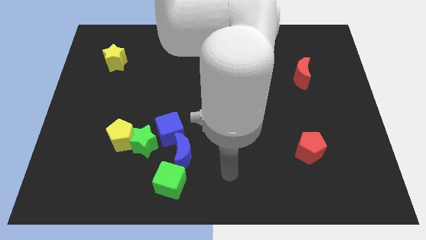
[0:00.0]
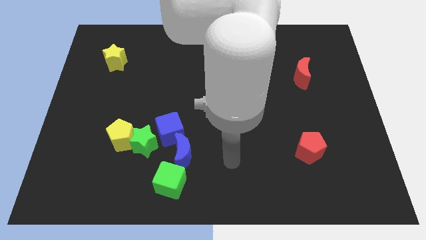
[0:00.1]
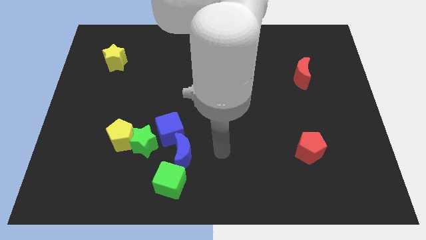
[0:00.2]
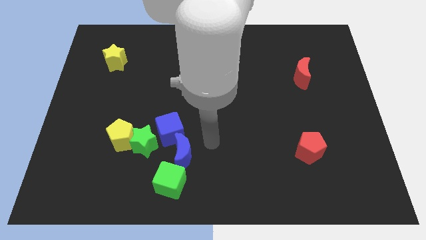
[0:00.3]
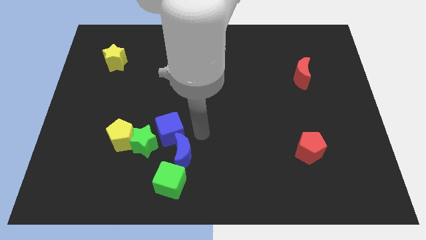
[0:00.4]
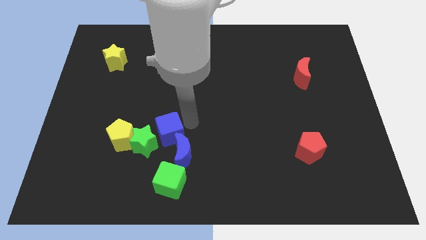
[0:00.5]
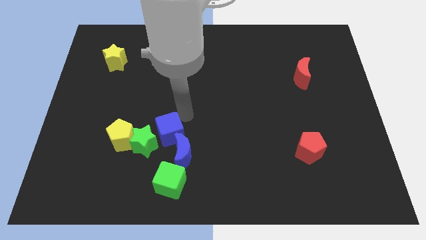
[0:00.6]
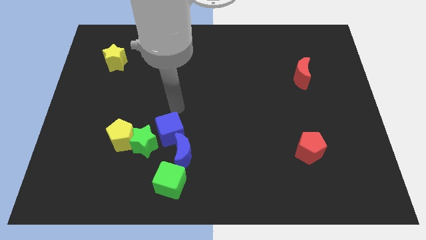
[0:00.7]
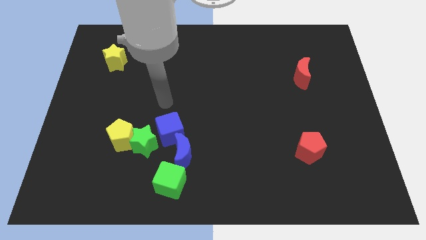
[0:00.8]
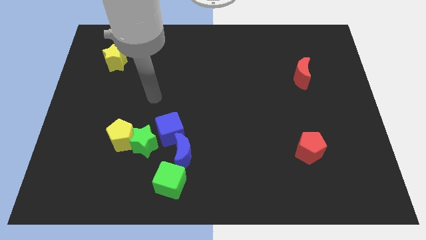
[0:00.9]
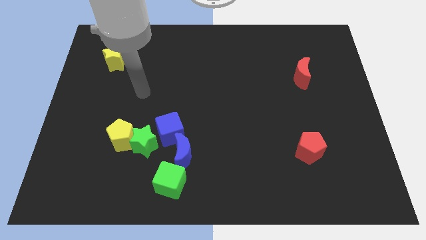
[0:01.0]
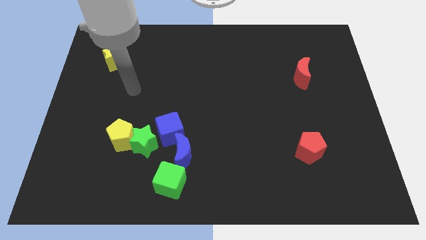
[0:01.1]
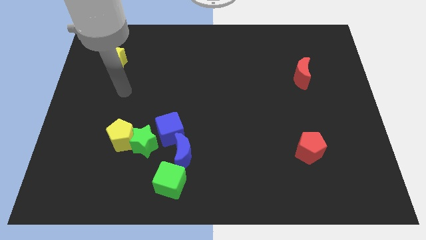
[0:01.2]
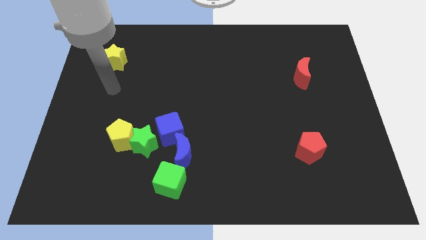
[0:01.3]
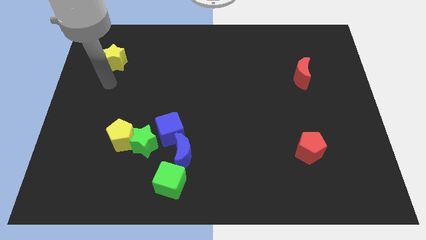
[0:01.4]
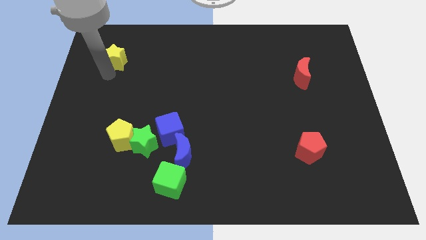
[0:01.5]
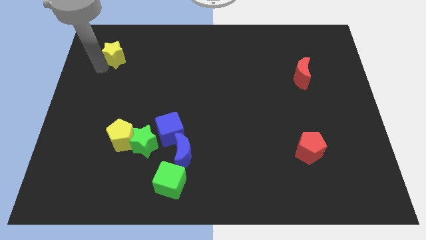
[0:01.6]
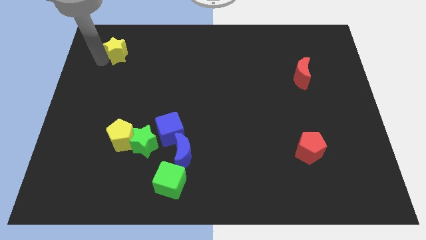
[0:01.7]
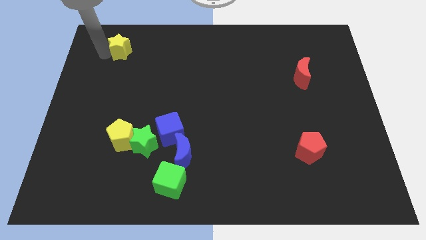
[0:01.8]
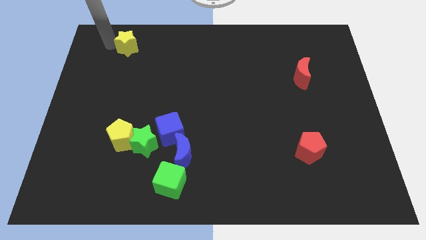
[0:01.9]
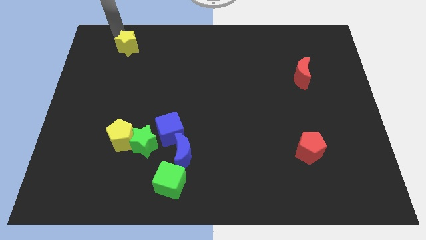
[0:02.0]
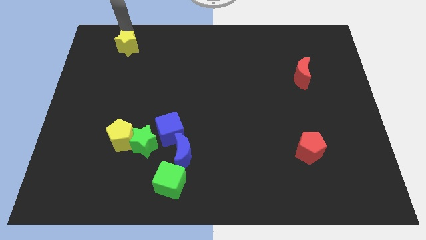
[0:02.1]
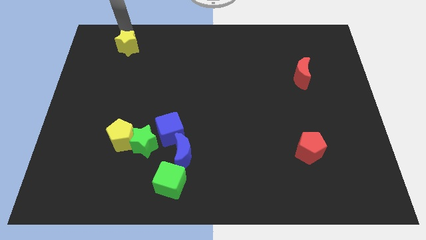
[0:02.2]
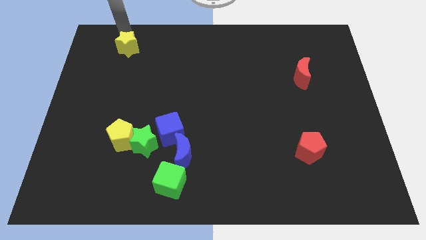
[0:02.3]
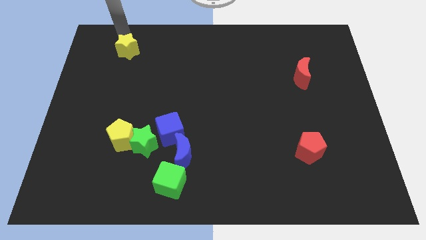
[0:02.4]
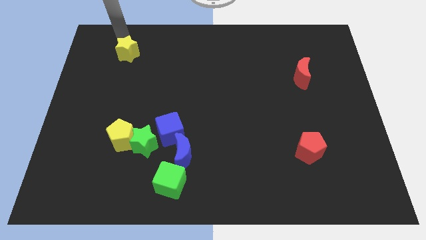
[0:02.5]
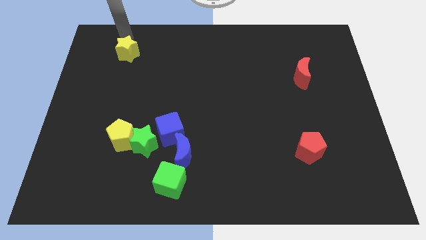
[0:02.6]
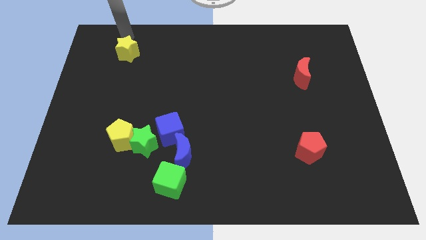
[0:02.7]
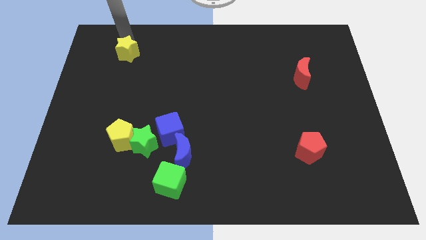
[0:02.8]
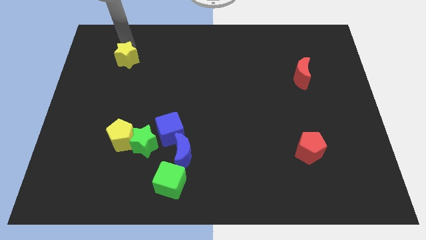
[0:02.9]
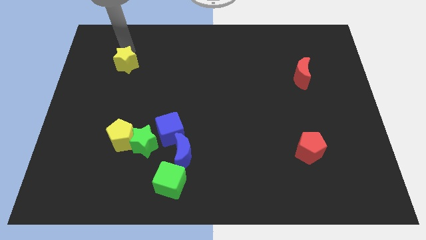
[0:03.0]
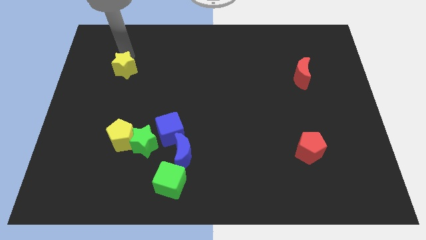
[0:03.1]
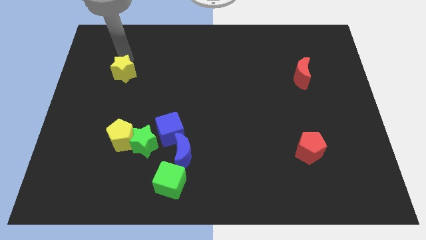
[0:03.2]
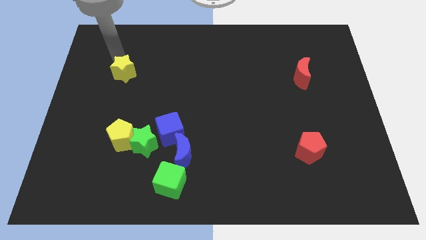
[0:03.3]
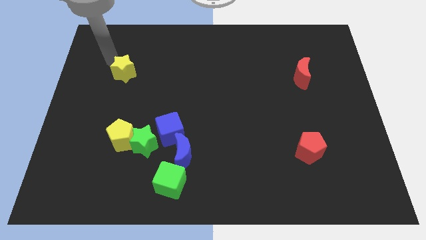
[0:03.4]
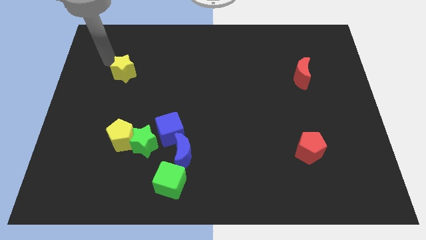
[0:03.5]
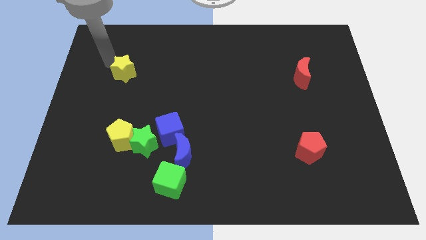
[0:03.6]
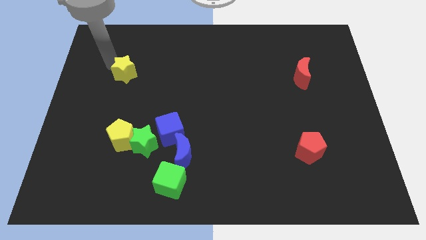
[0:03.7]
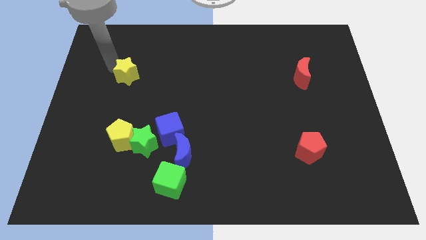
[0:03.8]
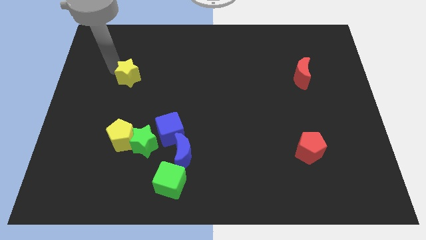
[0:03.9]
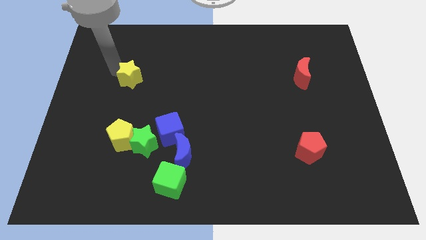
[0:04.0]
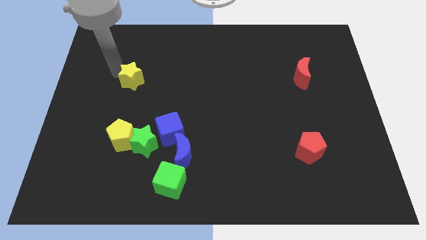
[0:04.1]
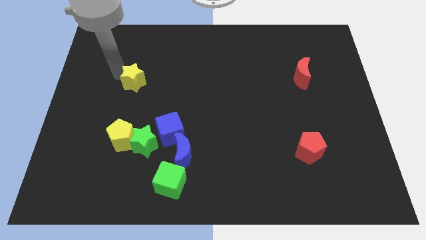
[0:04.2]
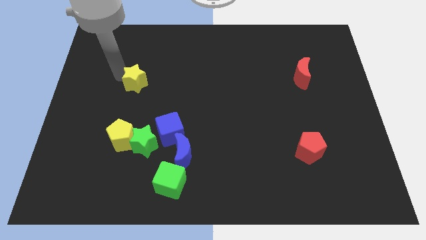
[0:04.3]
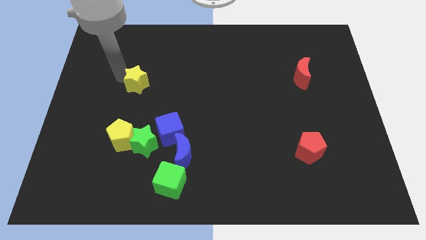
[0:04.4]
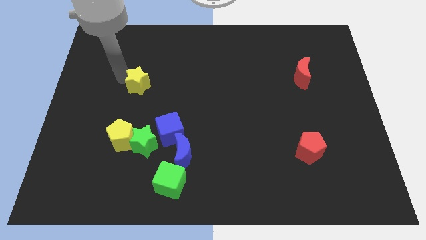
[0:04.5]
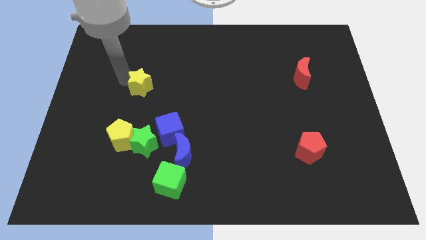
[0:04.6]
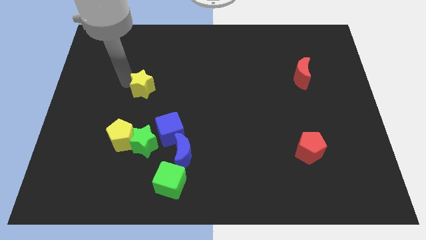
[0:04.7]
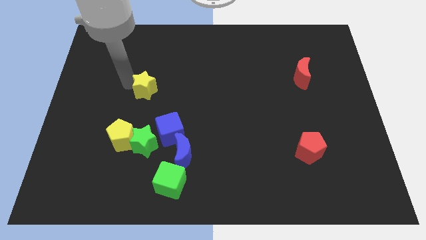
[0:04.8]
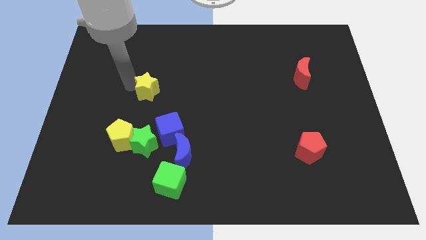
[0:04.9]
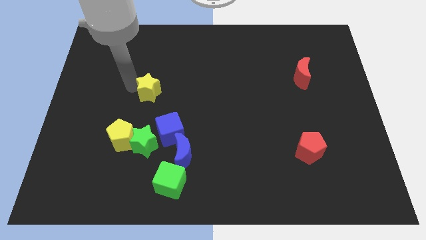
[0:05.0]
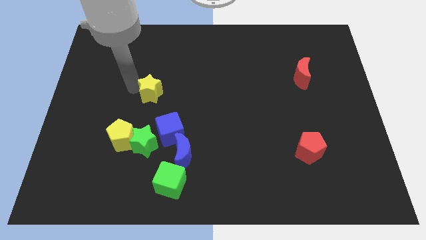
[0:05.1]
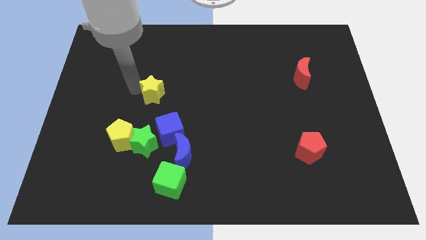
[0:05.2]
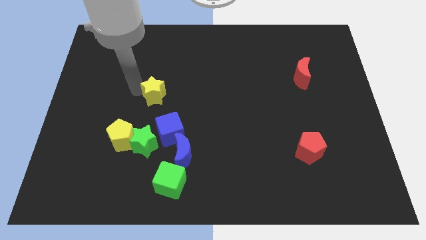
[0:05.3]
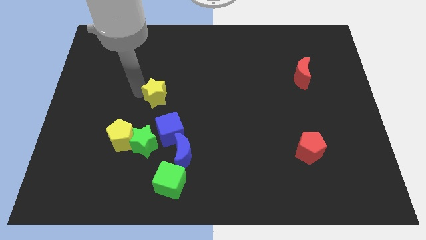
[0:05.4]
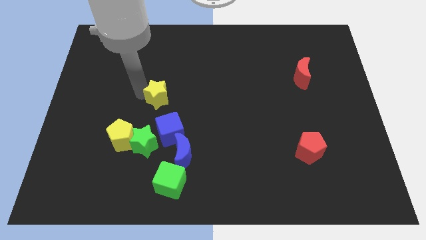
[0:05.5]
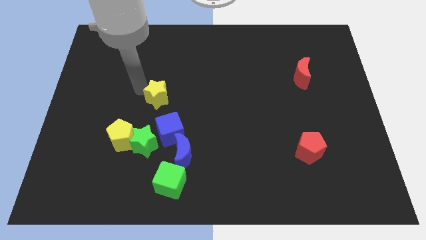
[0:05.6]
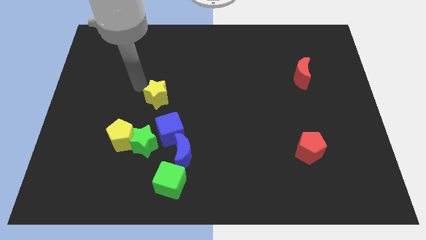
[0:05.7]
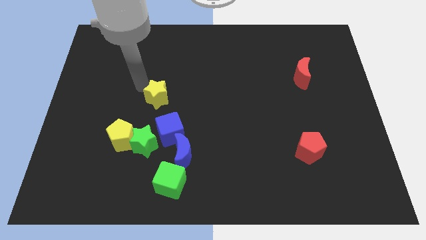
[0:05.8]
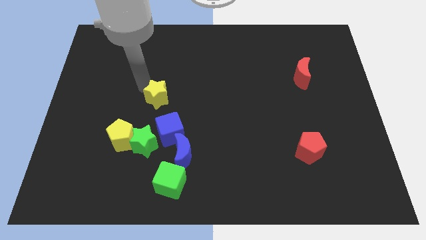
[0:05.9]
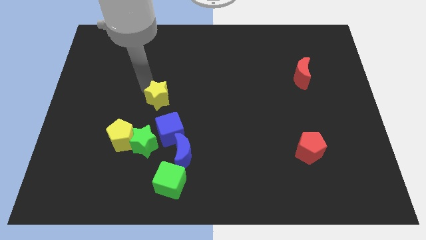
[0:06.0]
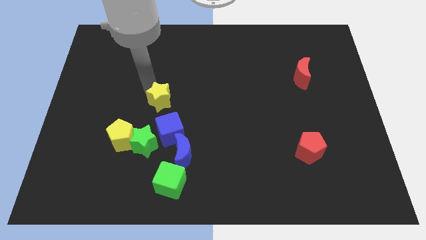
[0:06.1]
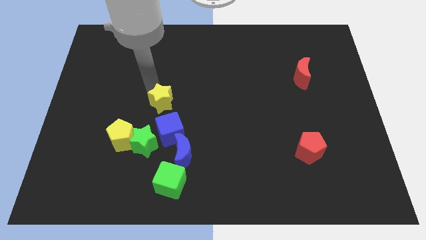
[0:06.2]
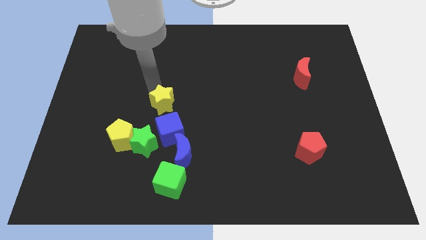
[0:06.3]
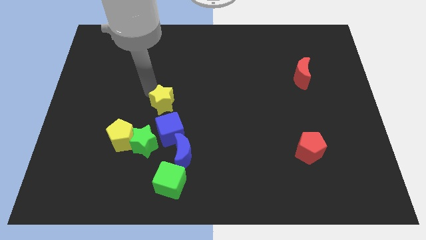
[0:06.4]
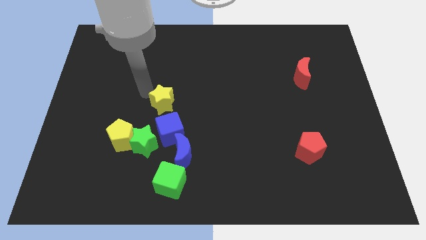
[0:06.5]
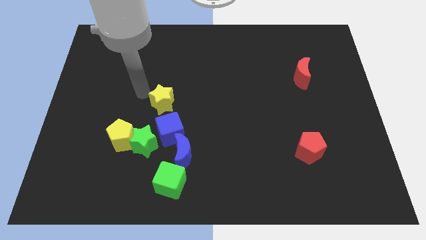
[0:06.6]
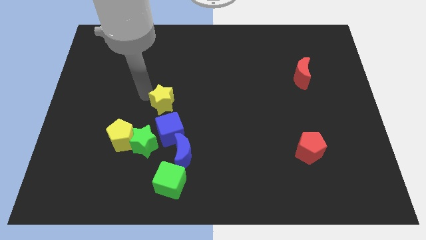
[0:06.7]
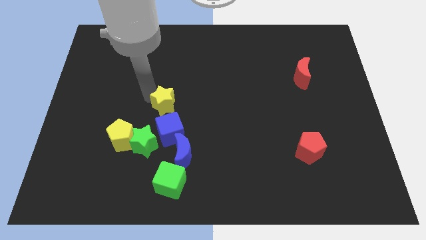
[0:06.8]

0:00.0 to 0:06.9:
push the yellow star downwards and then right

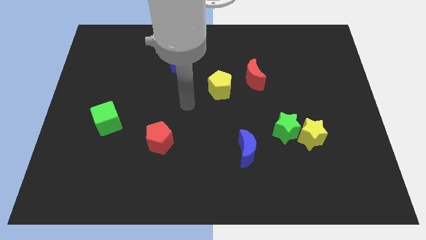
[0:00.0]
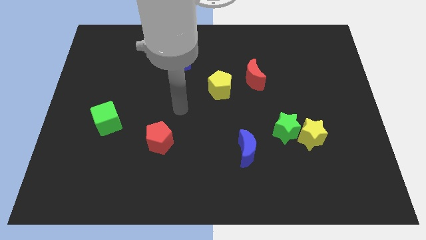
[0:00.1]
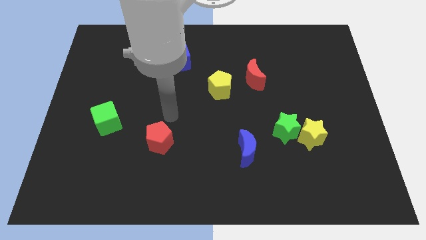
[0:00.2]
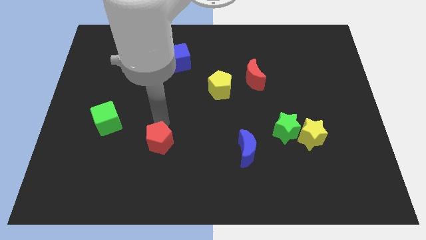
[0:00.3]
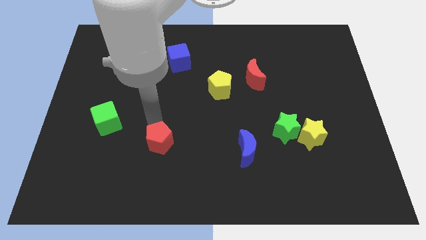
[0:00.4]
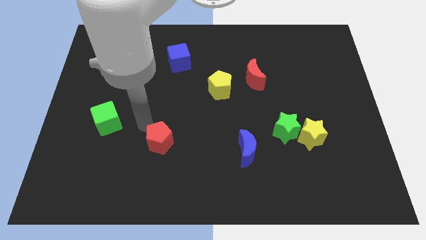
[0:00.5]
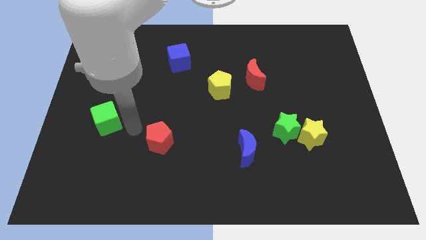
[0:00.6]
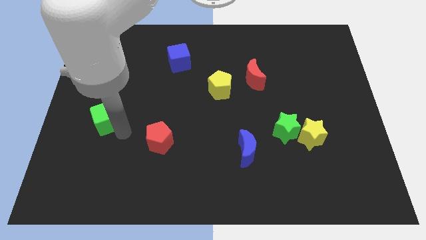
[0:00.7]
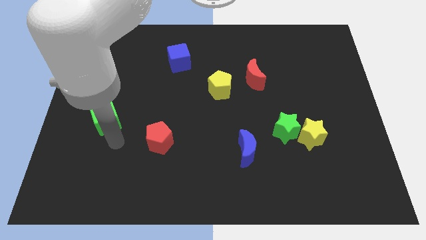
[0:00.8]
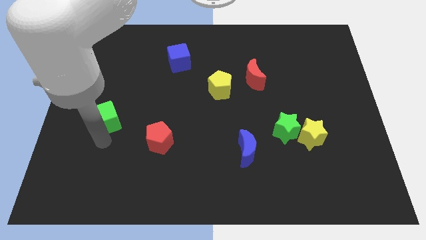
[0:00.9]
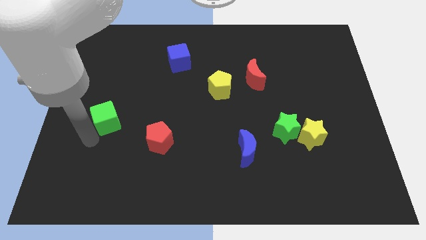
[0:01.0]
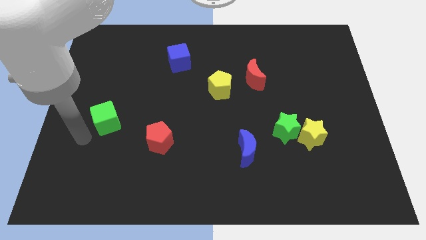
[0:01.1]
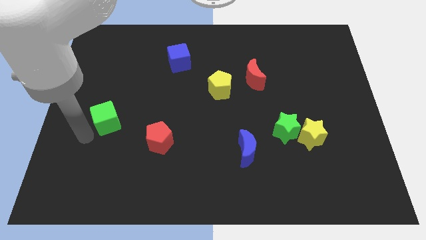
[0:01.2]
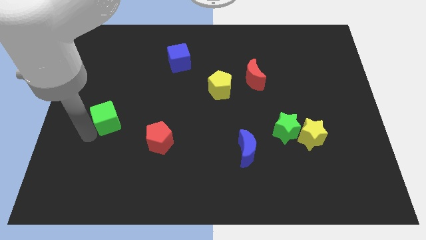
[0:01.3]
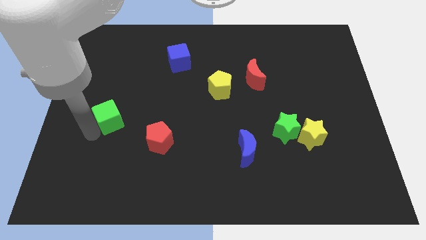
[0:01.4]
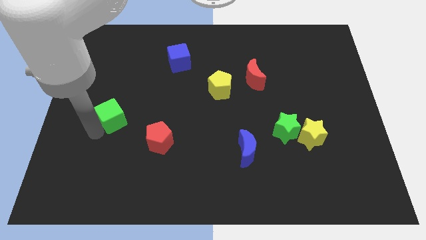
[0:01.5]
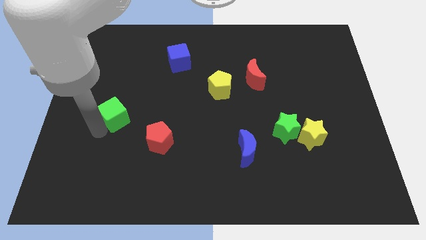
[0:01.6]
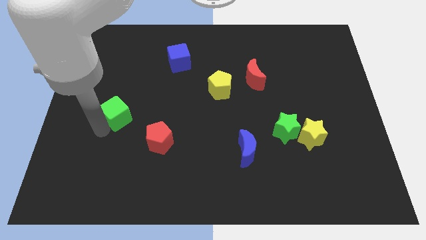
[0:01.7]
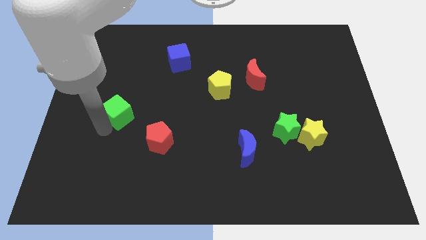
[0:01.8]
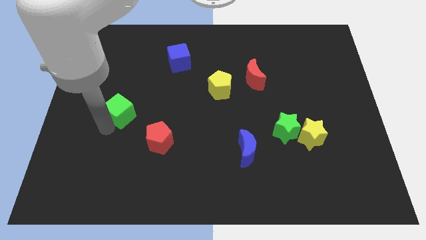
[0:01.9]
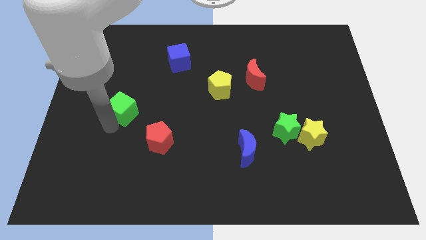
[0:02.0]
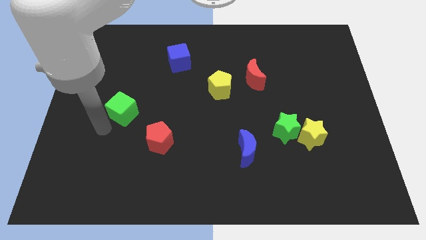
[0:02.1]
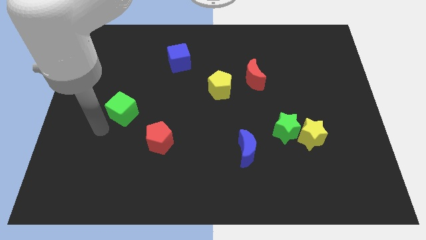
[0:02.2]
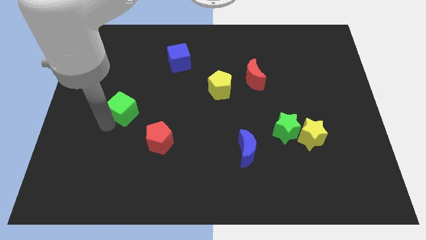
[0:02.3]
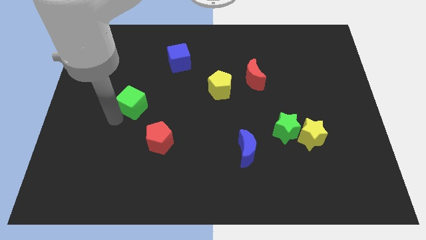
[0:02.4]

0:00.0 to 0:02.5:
push the green cube a bit up and to the right
